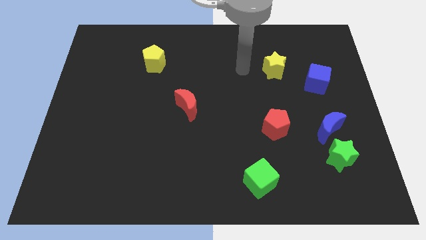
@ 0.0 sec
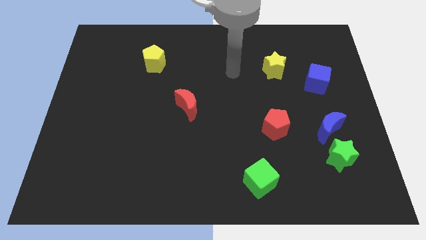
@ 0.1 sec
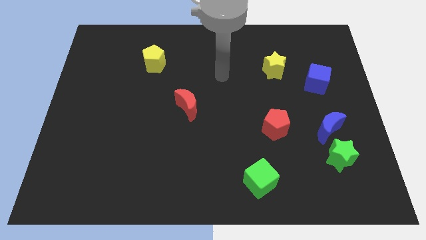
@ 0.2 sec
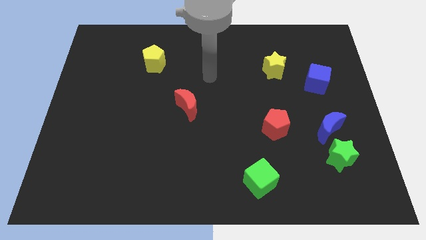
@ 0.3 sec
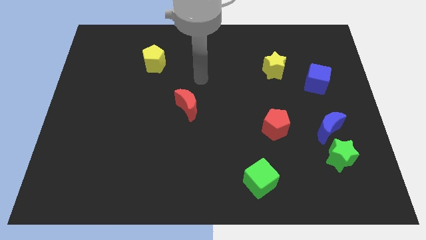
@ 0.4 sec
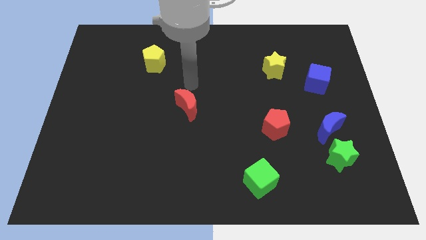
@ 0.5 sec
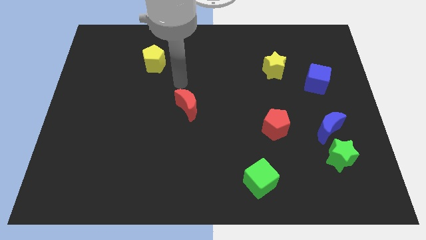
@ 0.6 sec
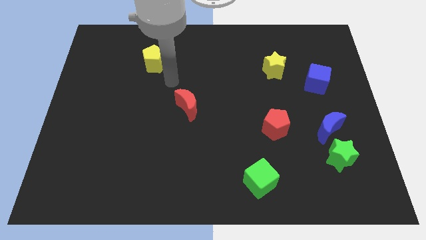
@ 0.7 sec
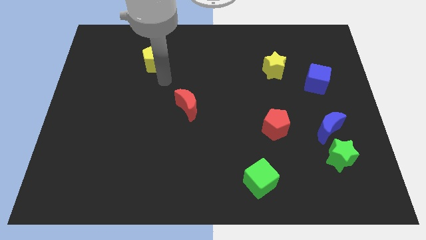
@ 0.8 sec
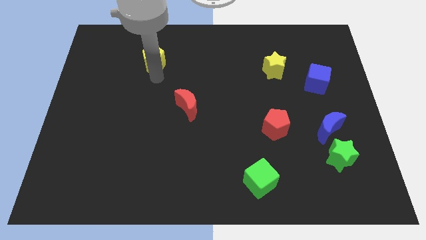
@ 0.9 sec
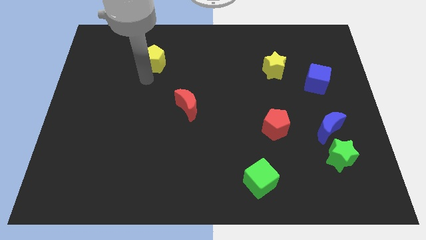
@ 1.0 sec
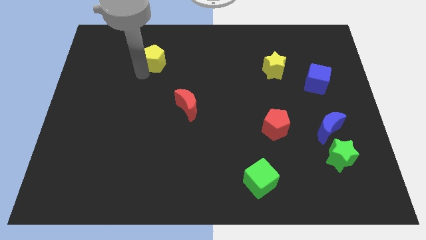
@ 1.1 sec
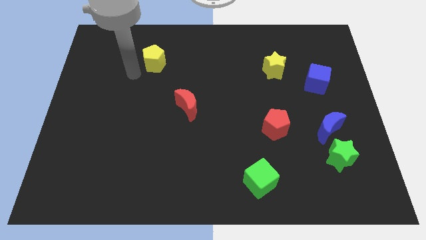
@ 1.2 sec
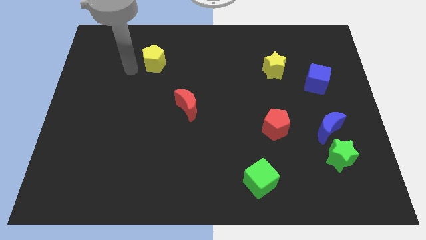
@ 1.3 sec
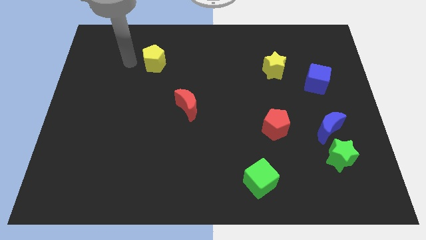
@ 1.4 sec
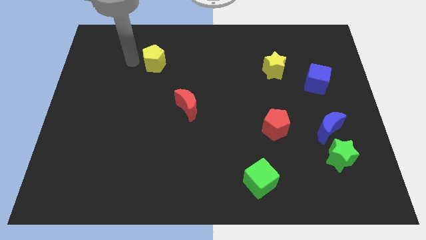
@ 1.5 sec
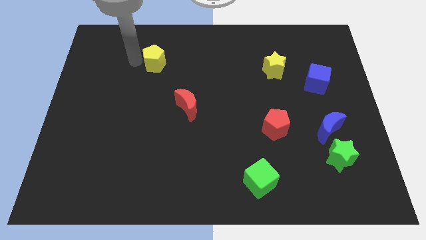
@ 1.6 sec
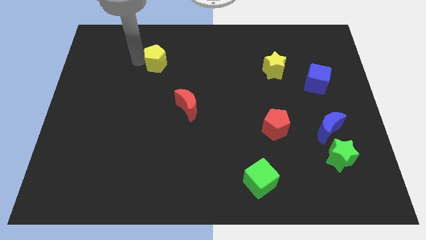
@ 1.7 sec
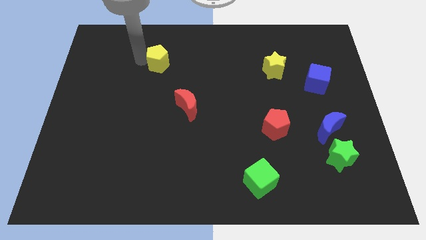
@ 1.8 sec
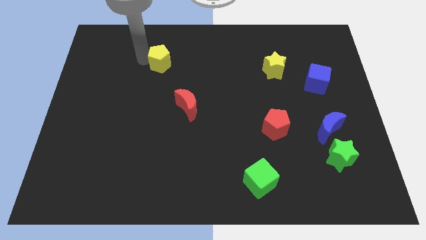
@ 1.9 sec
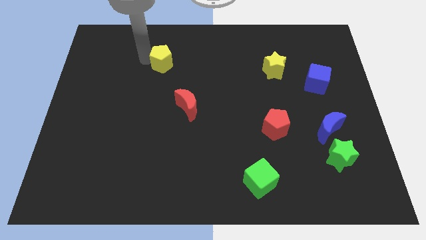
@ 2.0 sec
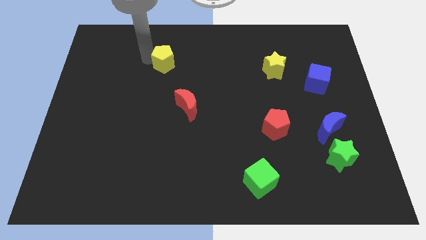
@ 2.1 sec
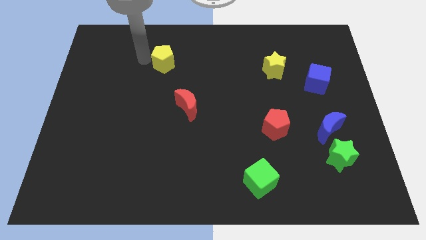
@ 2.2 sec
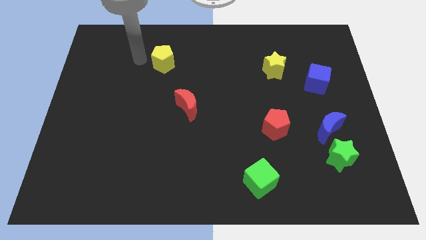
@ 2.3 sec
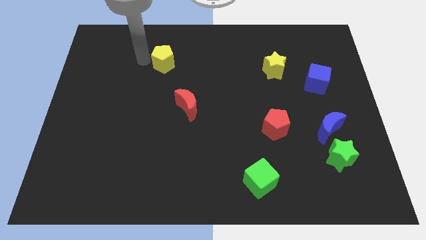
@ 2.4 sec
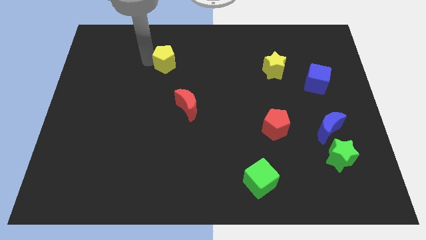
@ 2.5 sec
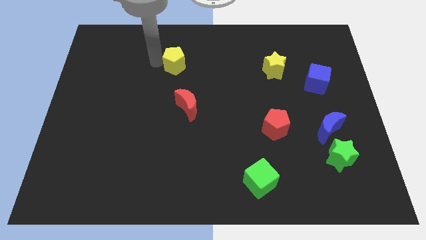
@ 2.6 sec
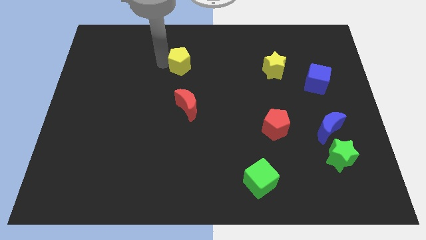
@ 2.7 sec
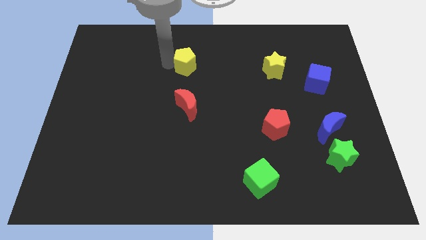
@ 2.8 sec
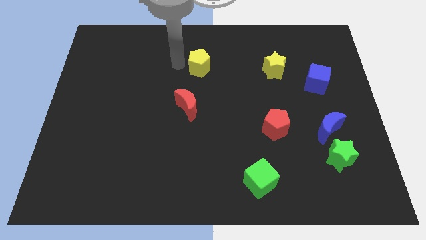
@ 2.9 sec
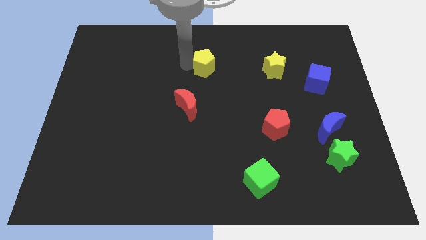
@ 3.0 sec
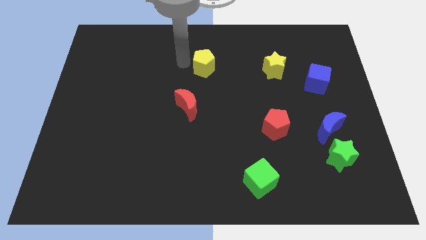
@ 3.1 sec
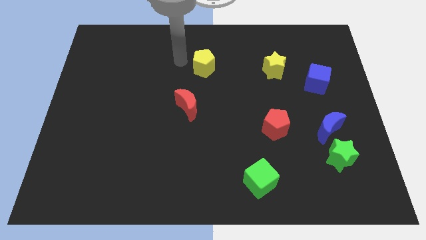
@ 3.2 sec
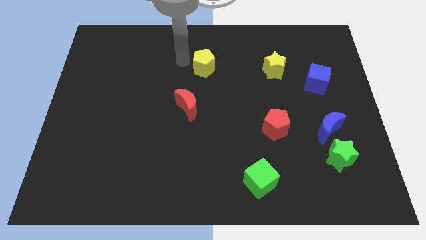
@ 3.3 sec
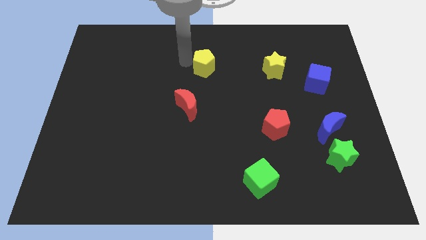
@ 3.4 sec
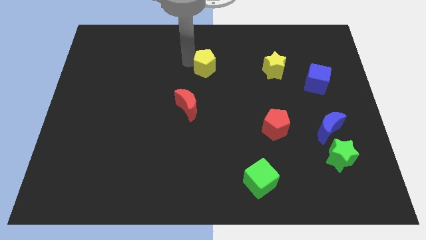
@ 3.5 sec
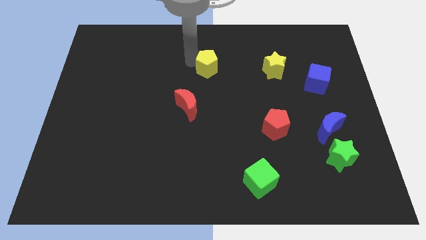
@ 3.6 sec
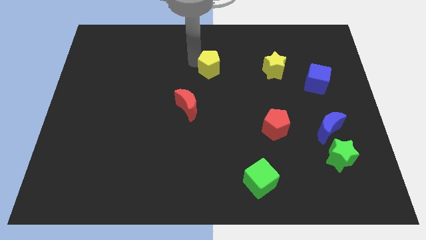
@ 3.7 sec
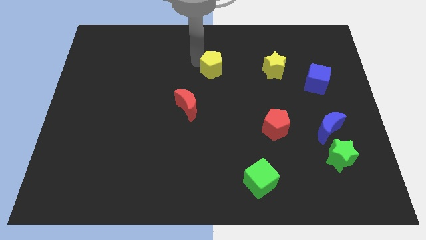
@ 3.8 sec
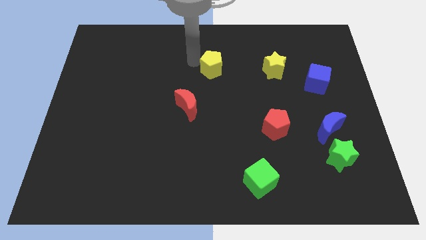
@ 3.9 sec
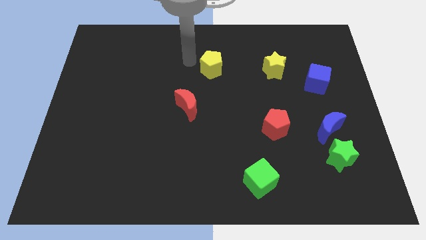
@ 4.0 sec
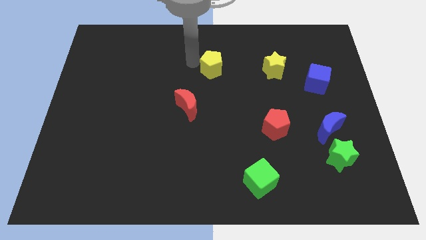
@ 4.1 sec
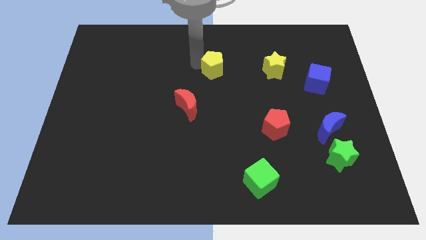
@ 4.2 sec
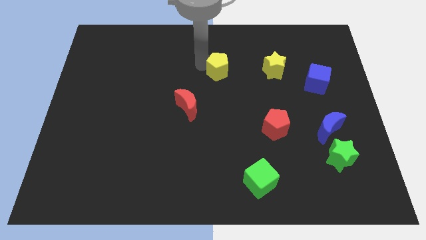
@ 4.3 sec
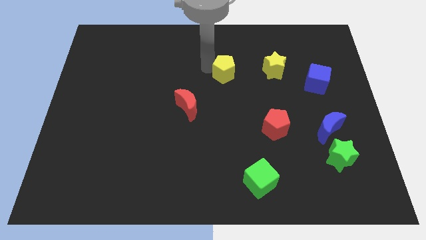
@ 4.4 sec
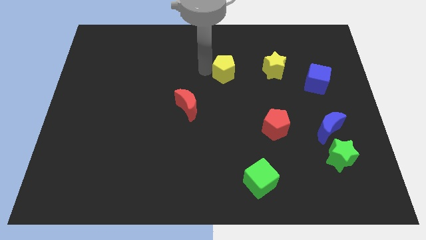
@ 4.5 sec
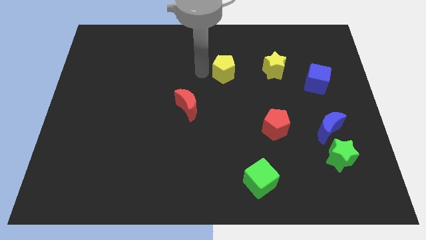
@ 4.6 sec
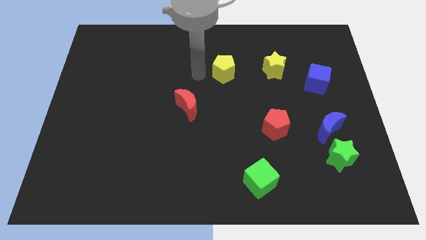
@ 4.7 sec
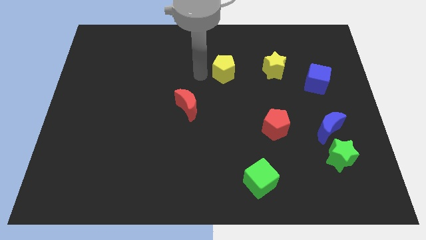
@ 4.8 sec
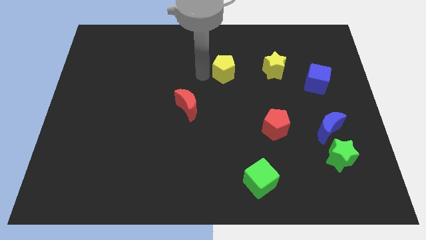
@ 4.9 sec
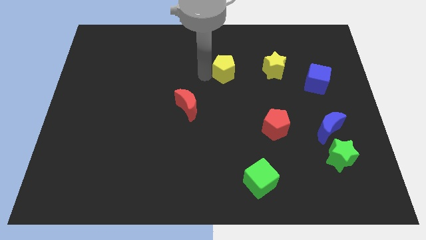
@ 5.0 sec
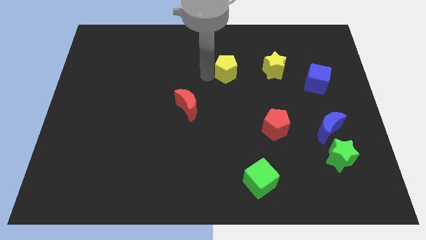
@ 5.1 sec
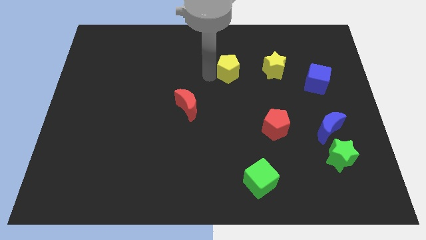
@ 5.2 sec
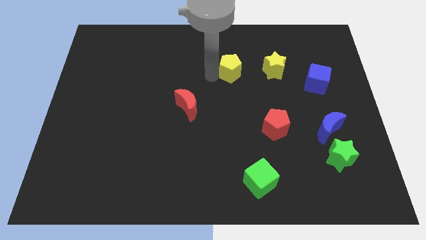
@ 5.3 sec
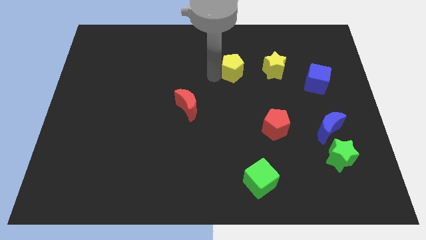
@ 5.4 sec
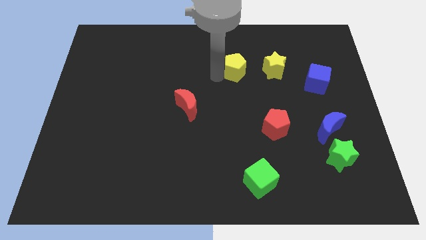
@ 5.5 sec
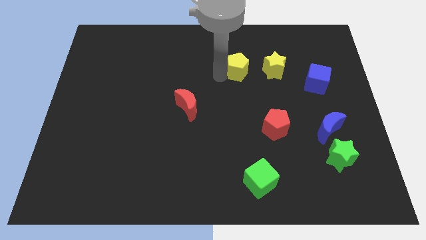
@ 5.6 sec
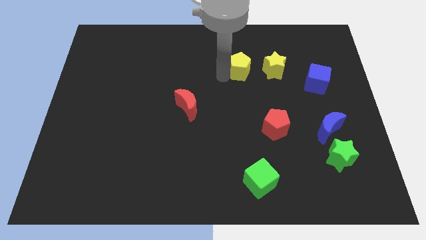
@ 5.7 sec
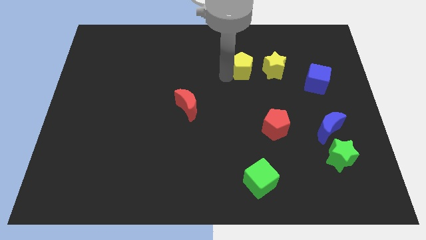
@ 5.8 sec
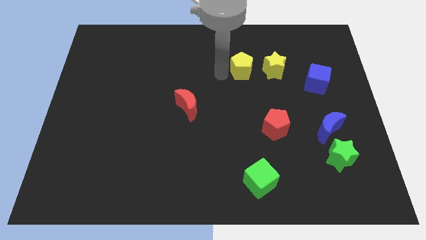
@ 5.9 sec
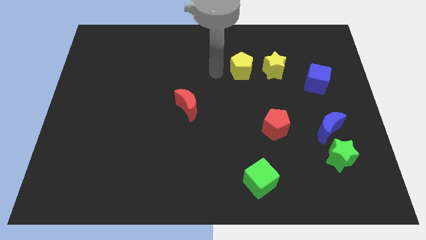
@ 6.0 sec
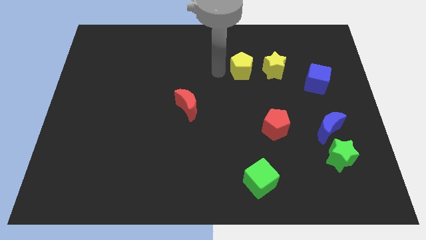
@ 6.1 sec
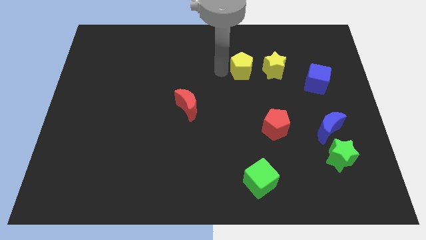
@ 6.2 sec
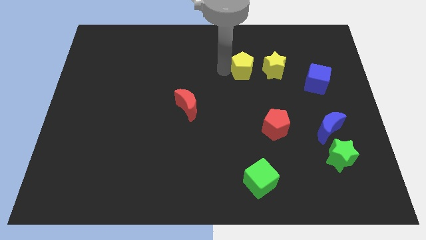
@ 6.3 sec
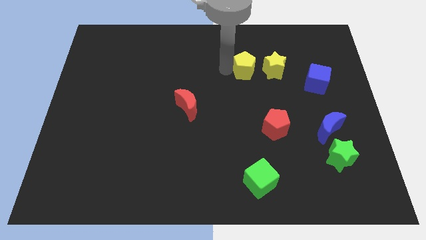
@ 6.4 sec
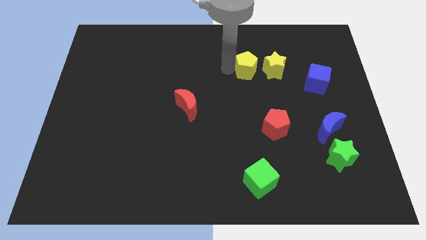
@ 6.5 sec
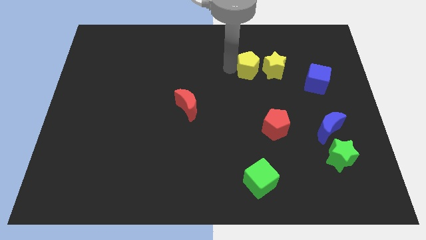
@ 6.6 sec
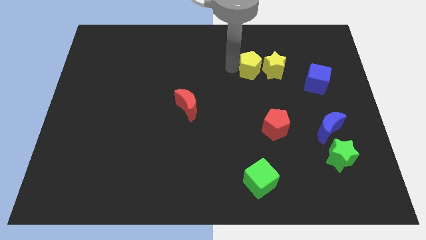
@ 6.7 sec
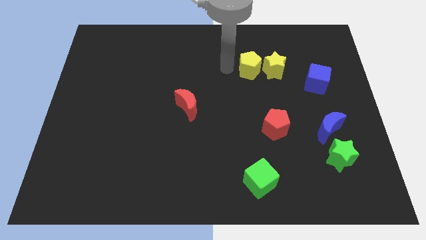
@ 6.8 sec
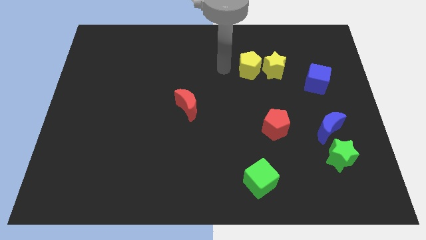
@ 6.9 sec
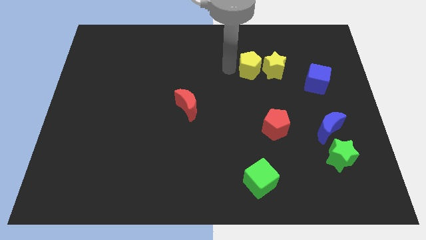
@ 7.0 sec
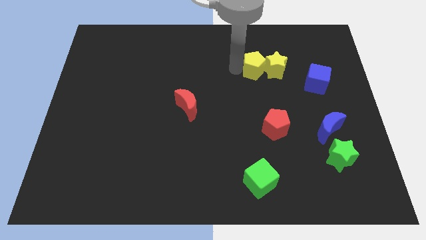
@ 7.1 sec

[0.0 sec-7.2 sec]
put the yellow pentagon next to the yellow star
